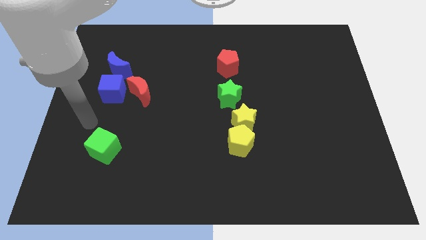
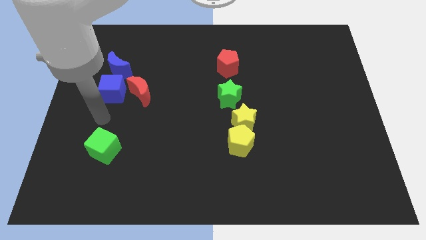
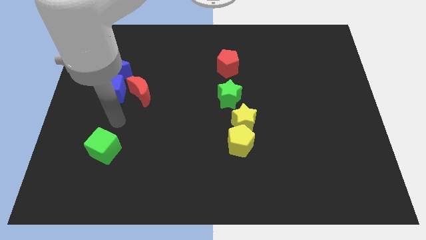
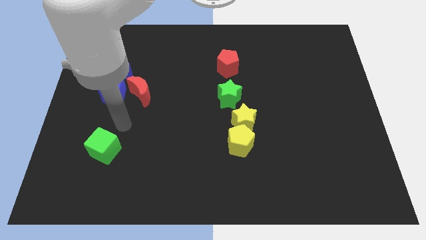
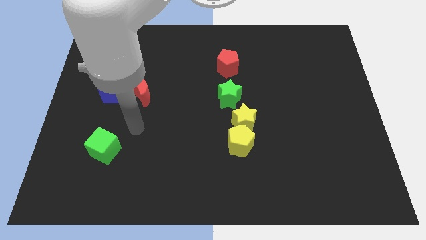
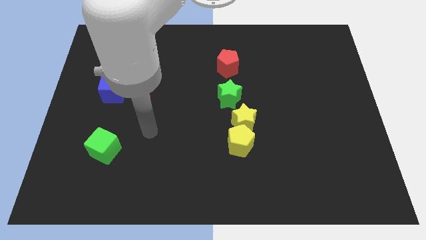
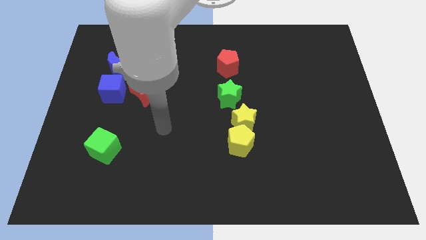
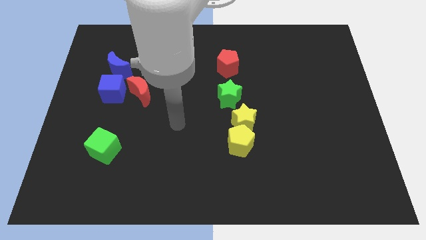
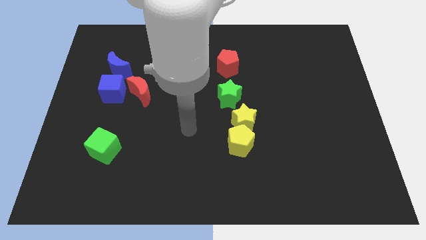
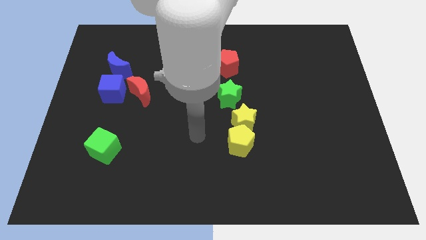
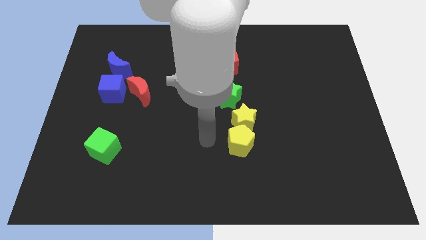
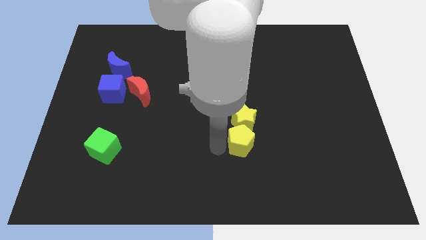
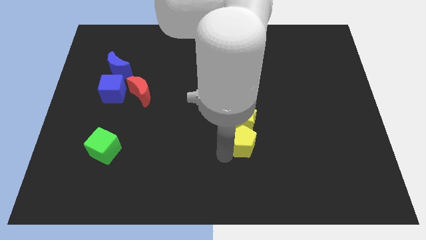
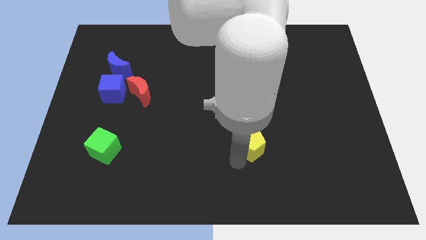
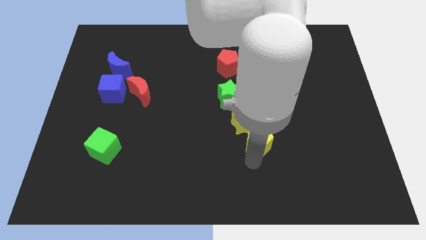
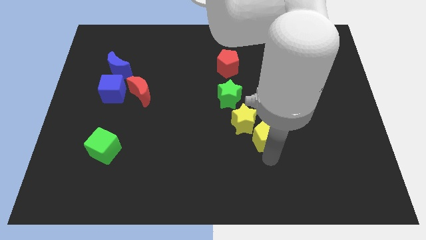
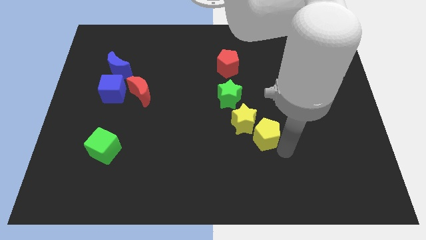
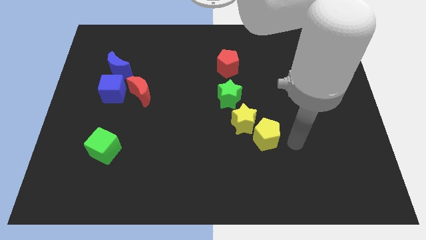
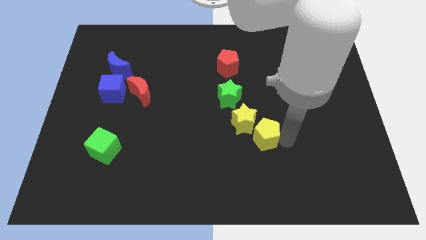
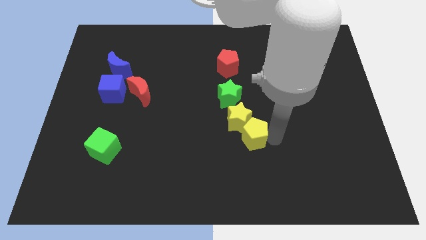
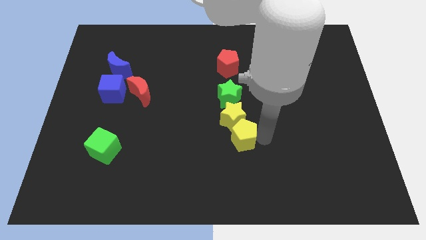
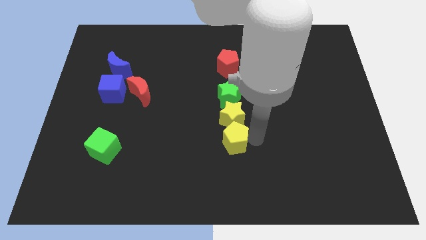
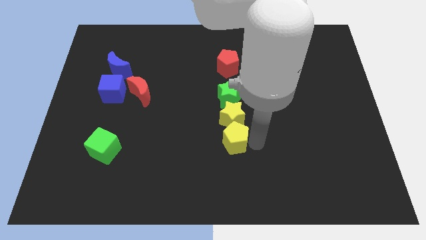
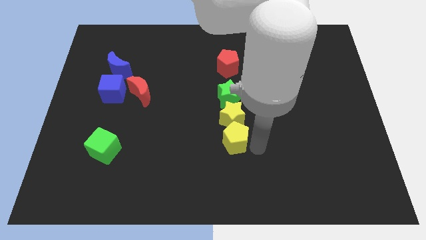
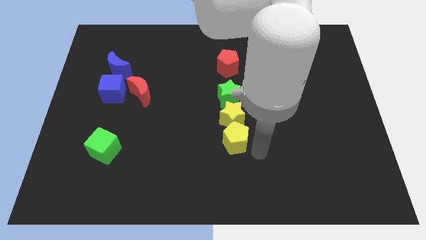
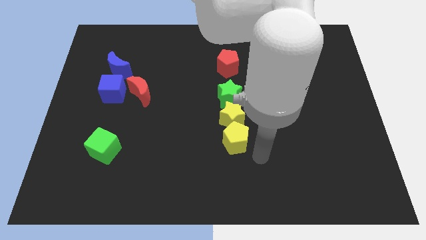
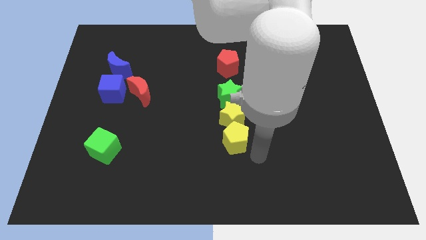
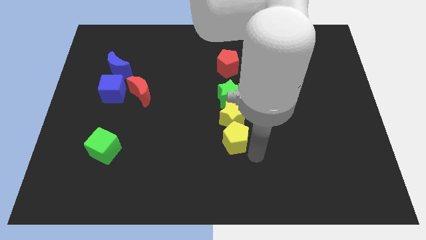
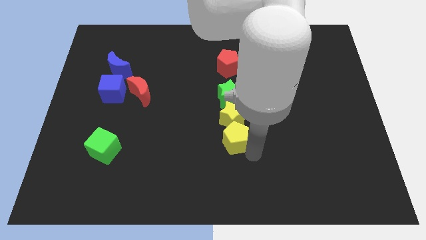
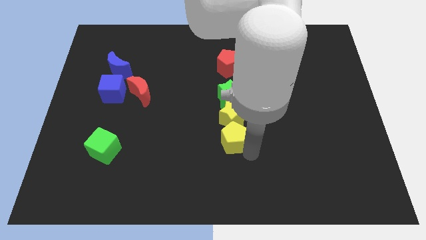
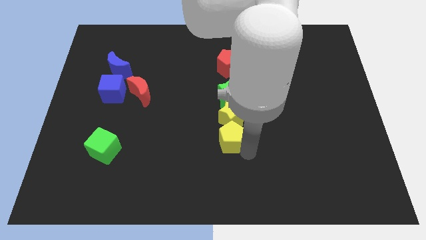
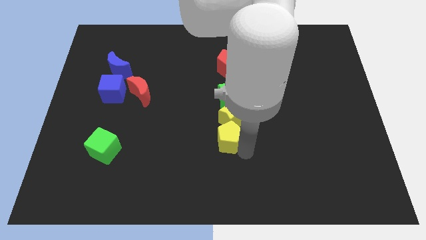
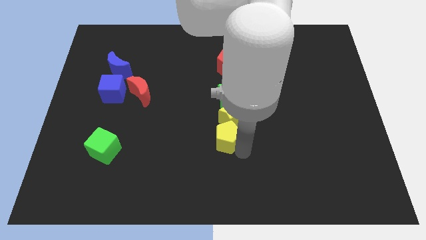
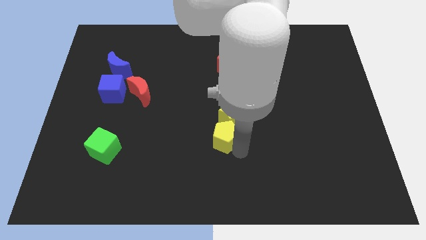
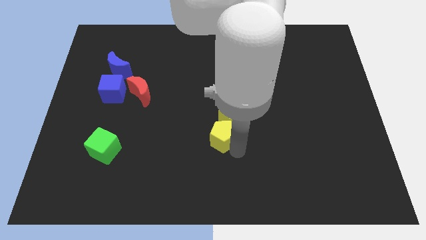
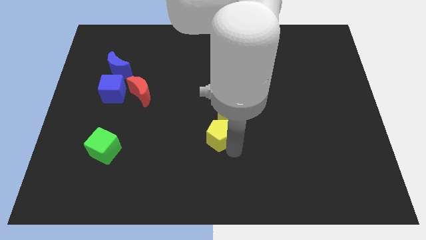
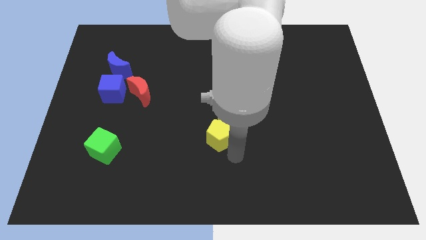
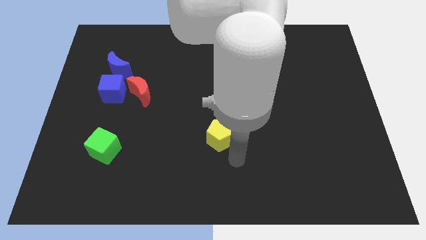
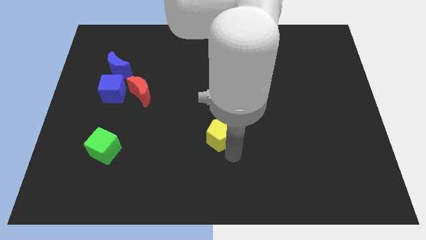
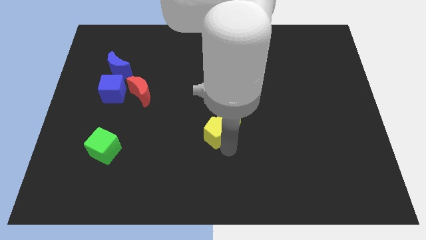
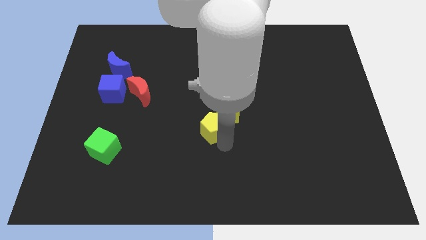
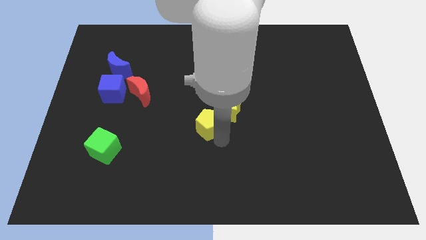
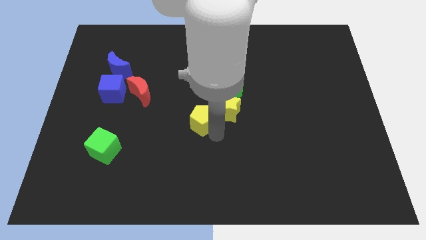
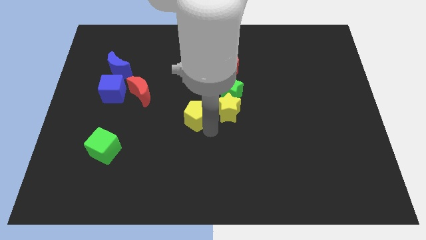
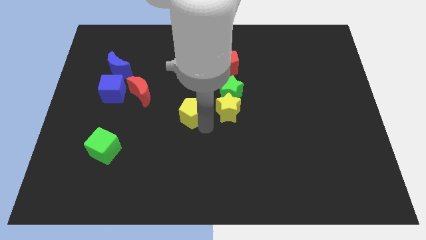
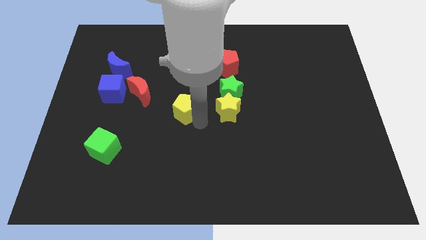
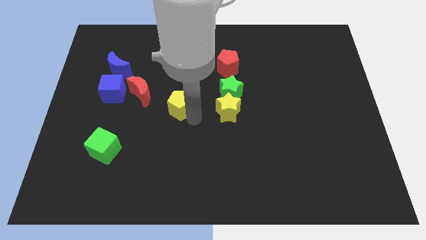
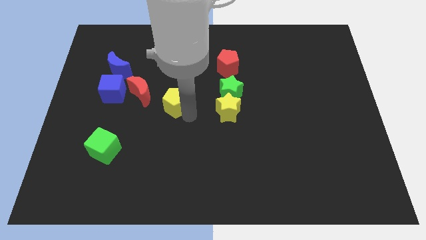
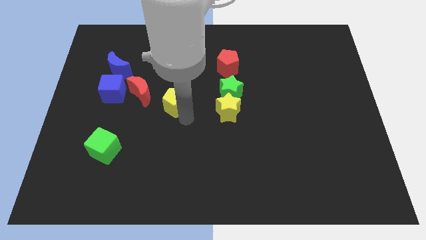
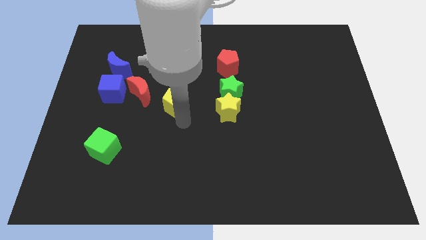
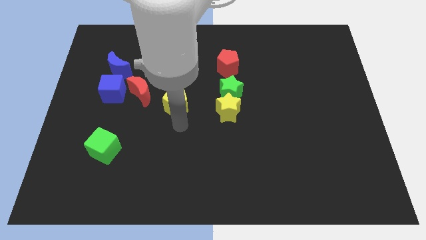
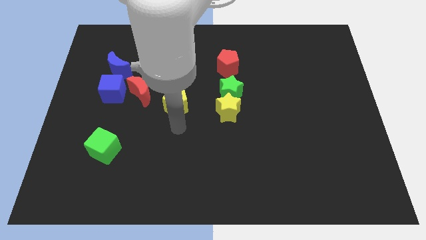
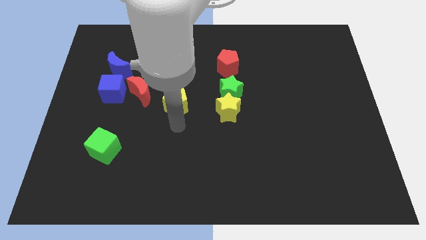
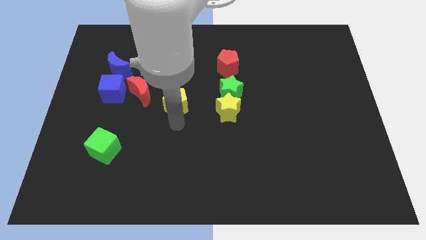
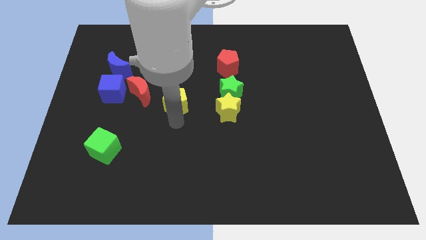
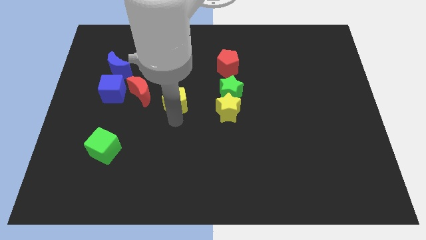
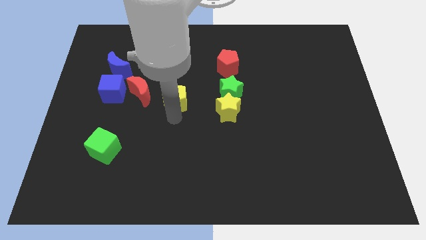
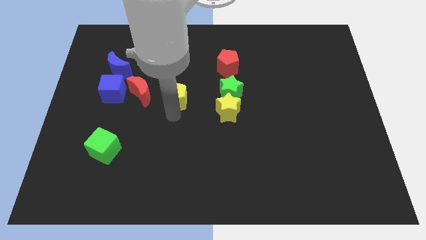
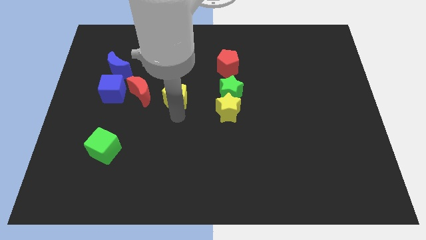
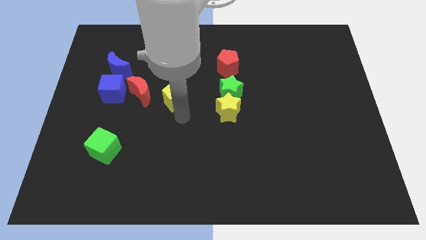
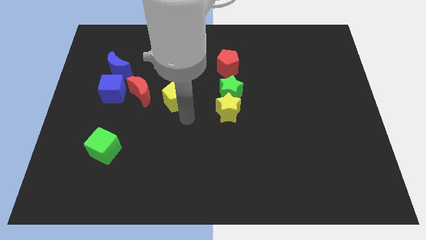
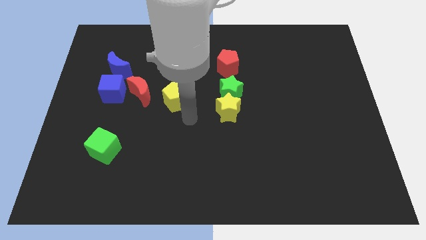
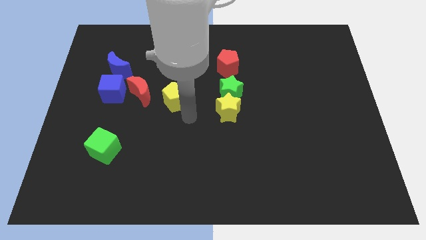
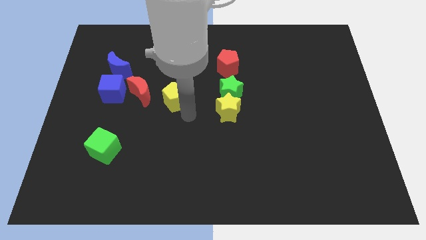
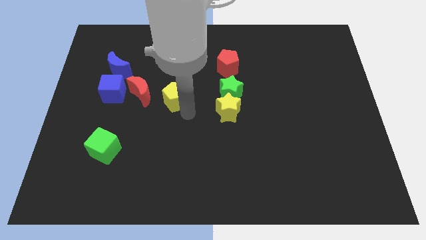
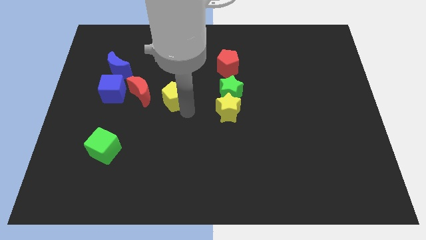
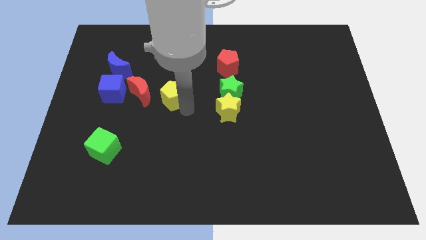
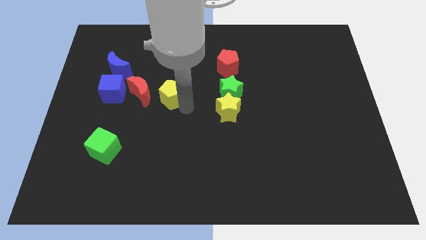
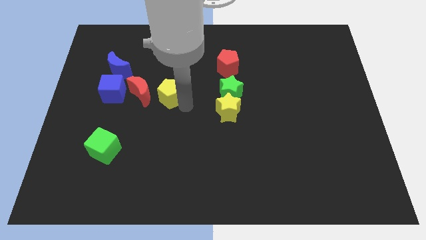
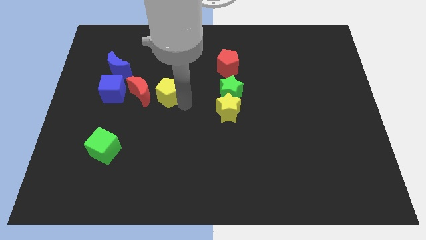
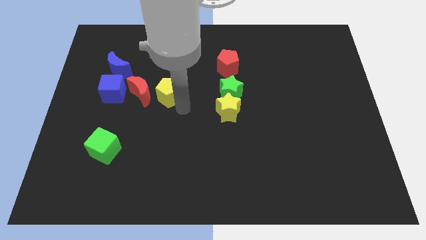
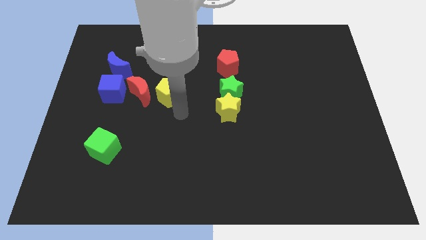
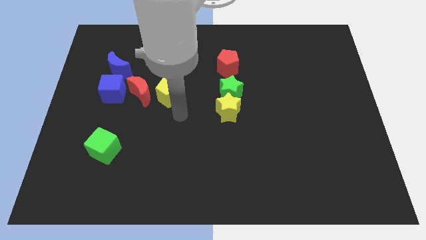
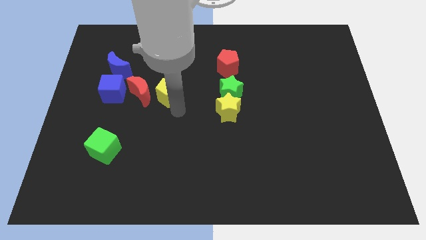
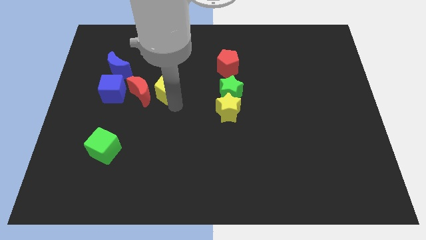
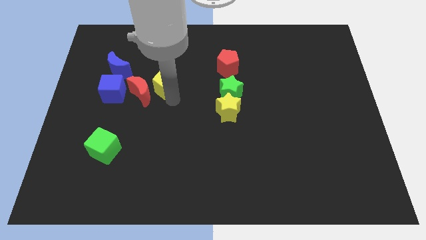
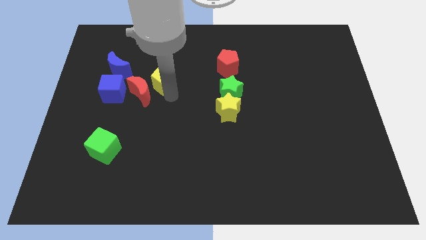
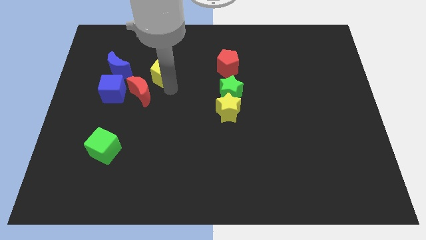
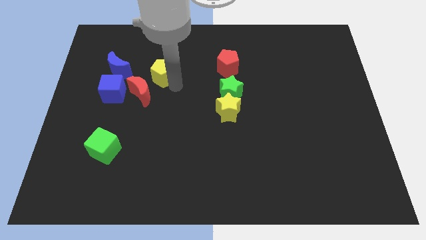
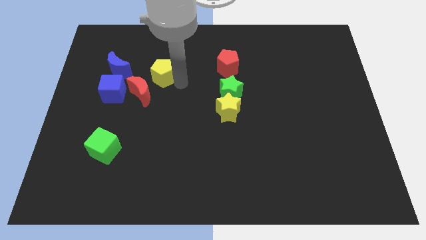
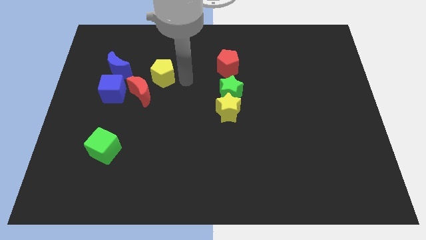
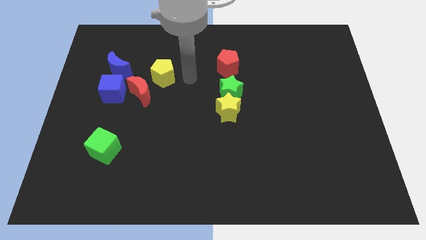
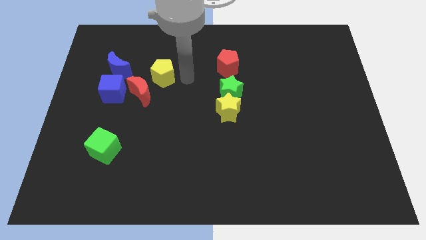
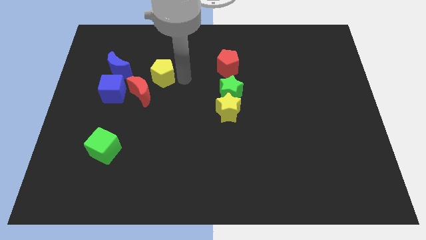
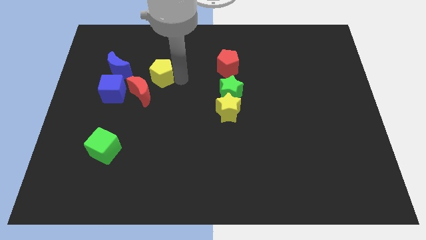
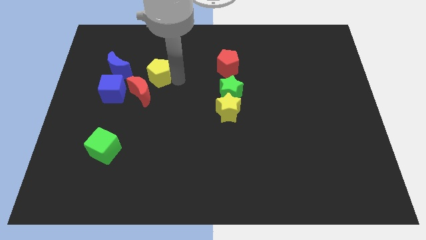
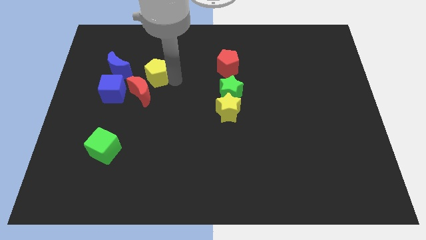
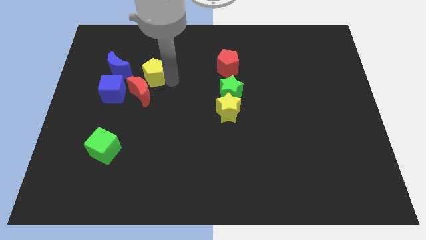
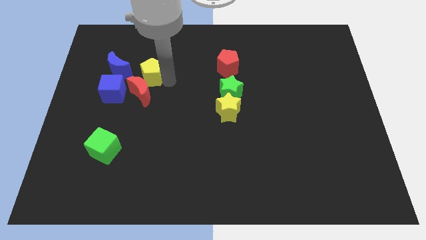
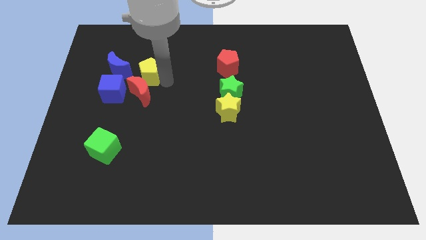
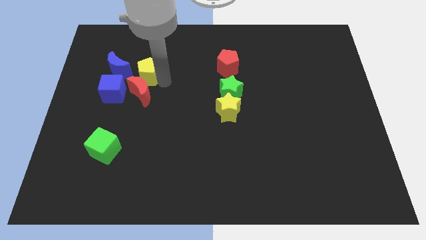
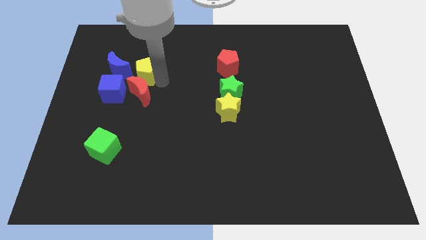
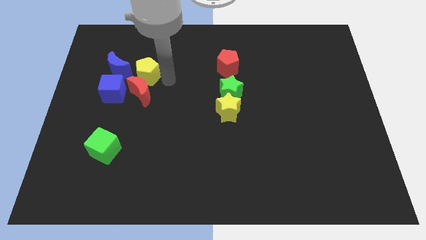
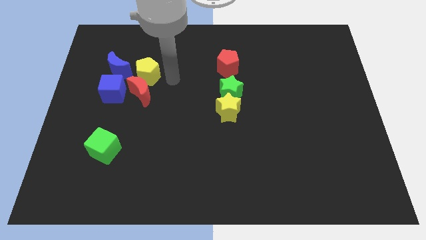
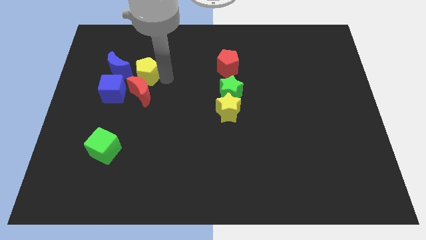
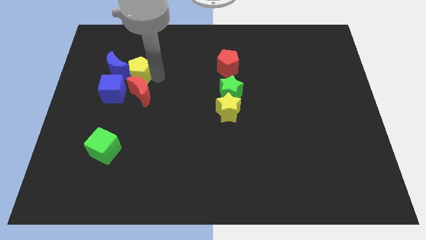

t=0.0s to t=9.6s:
move the yellow pentagon towards the blue moon
